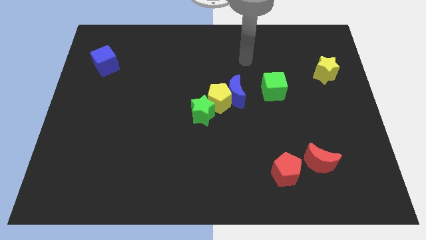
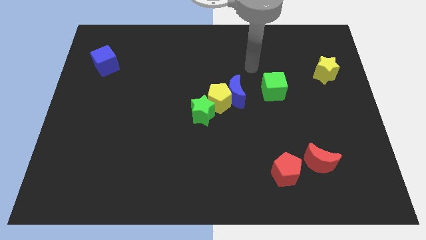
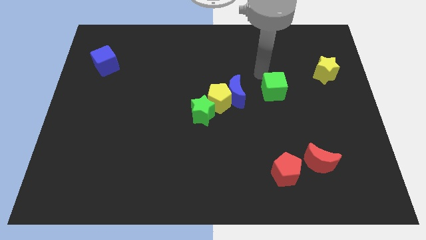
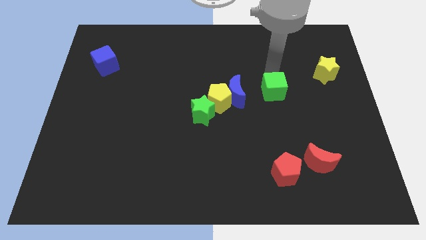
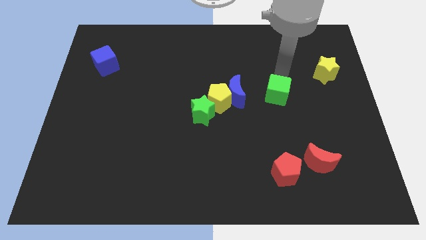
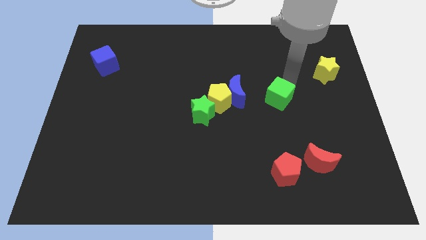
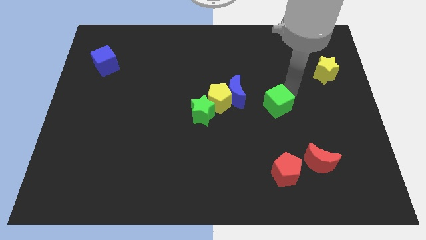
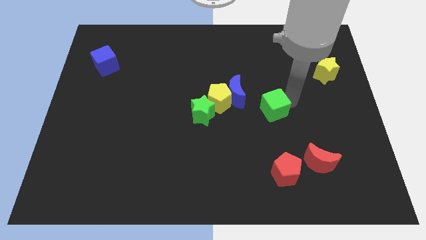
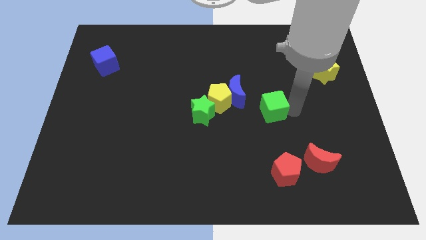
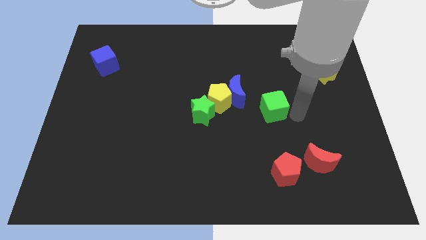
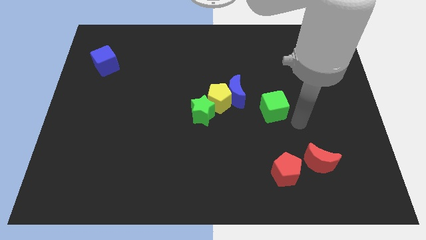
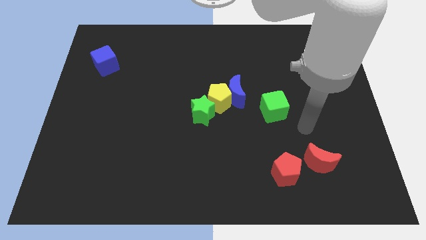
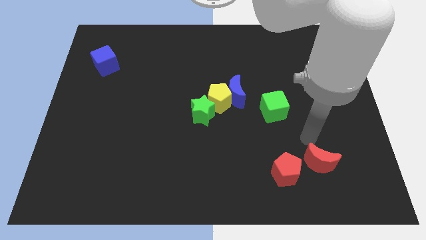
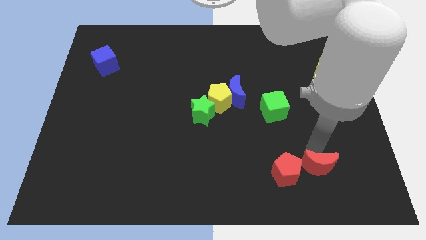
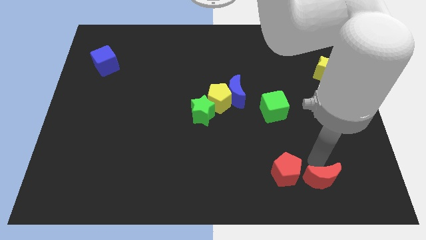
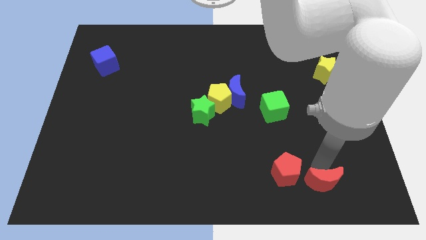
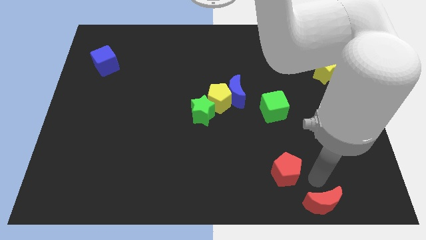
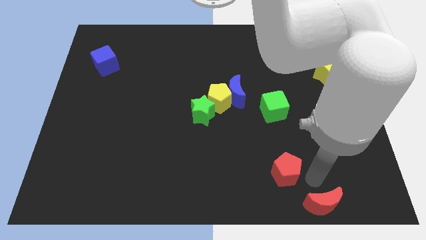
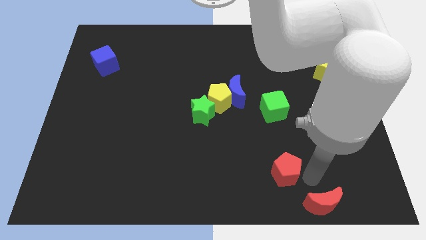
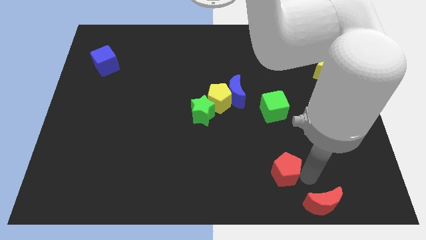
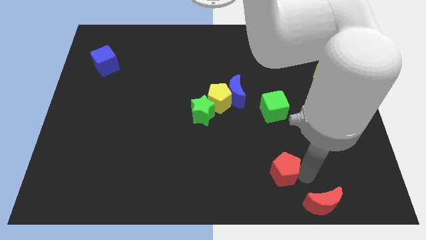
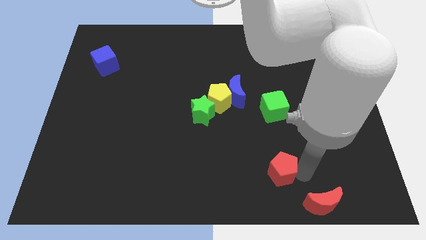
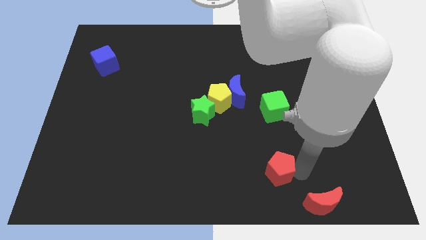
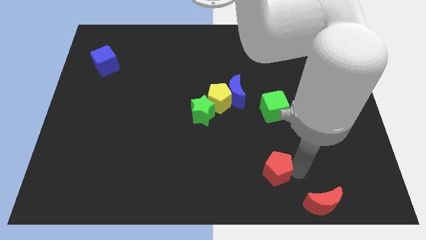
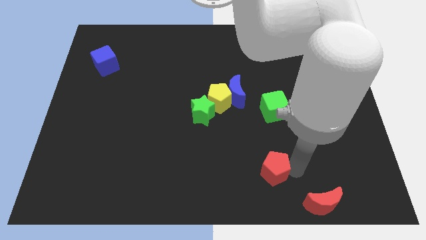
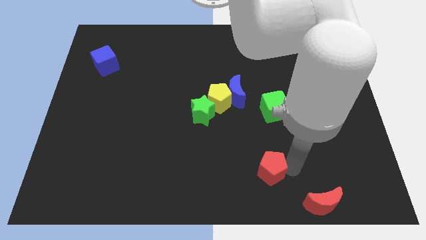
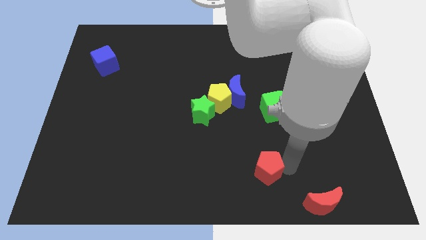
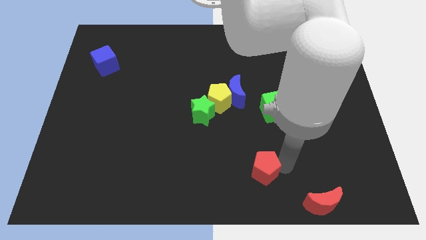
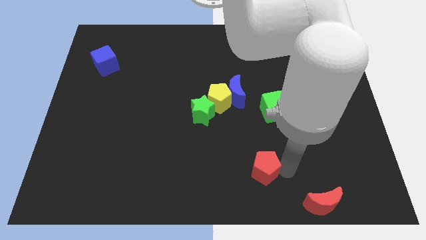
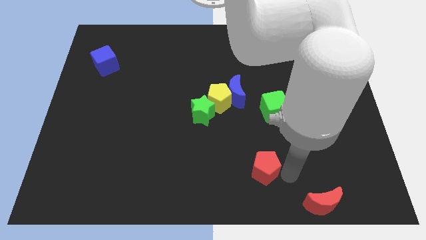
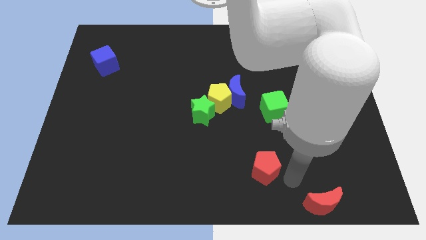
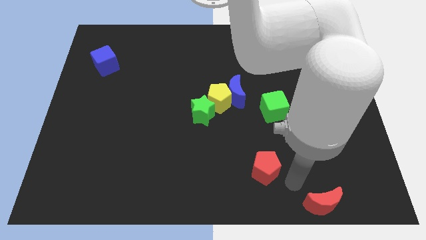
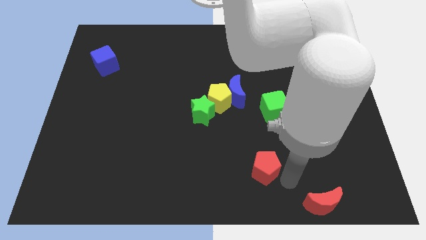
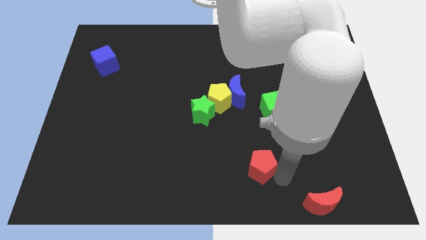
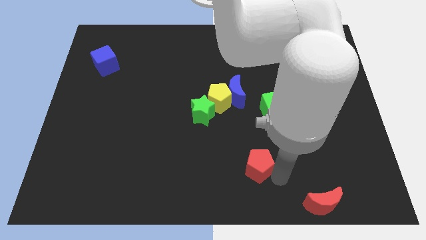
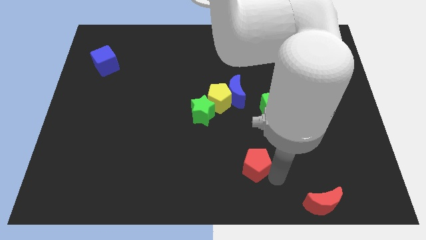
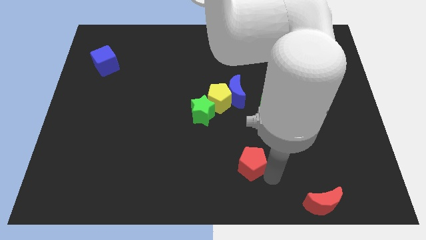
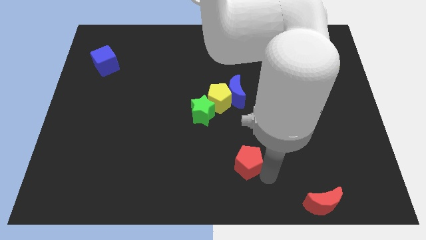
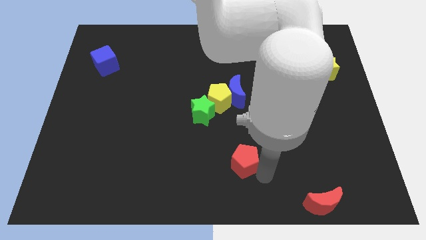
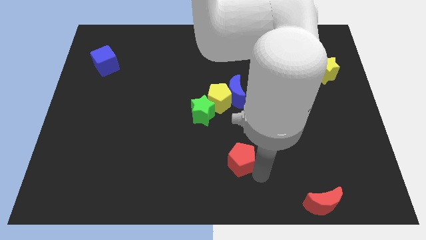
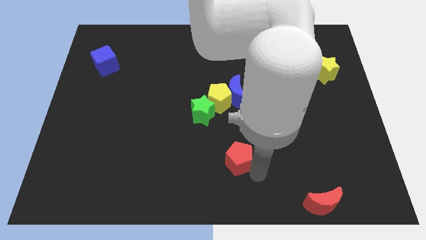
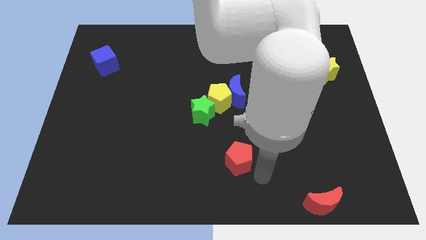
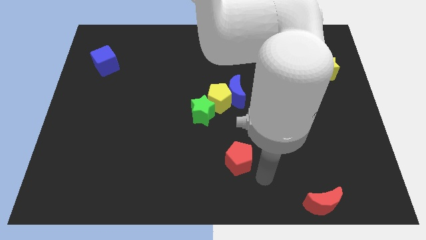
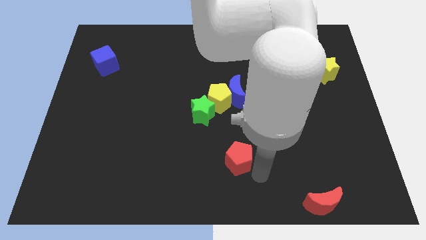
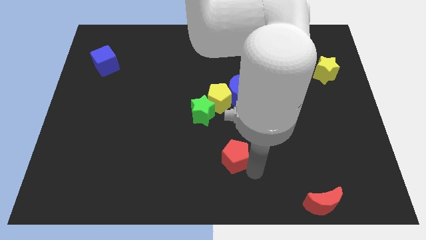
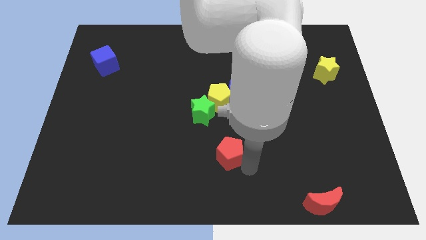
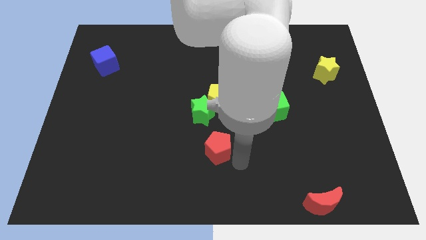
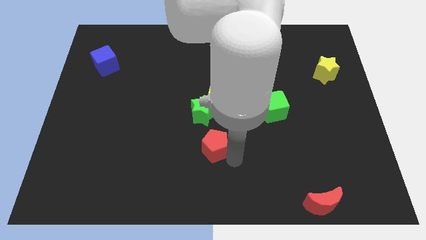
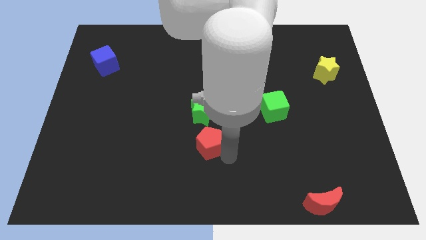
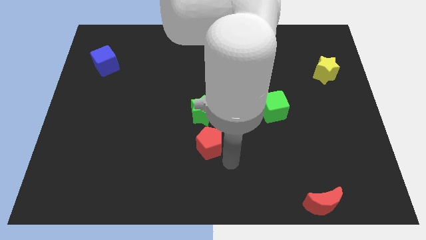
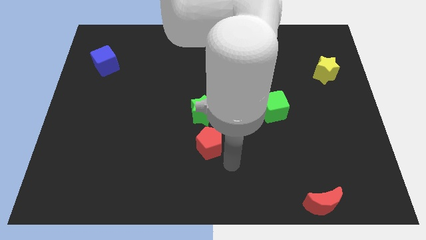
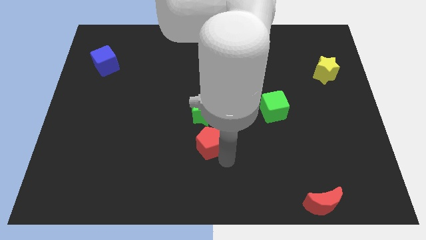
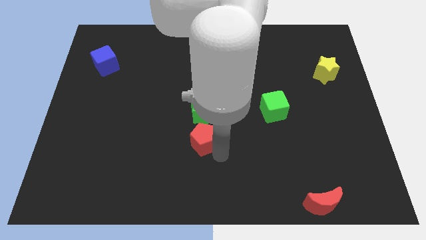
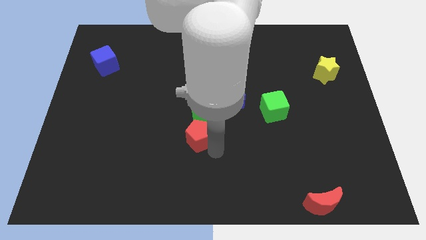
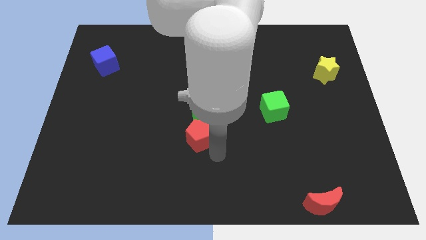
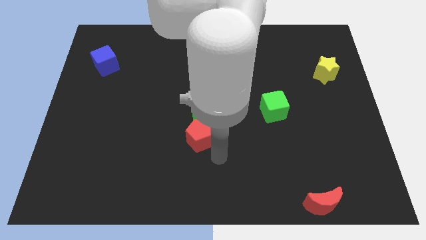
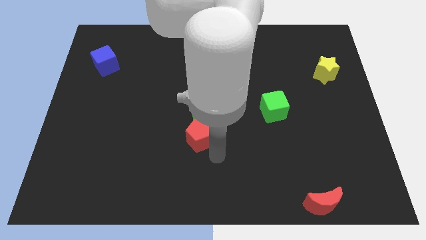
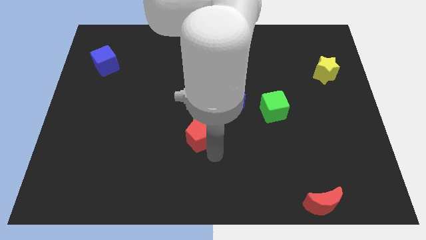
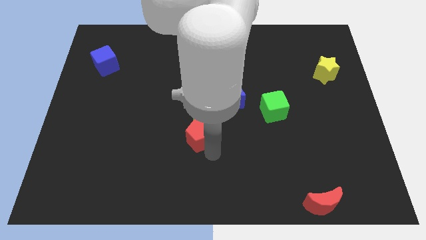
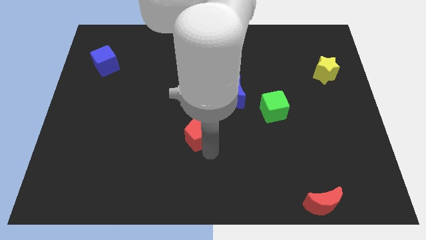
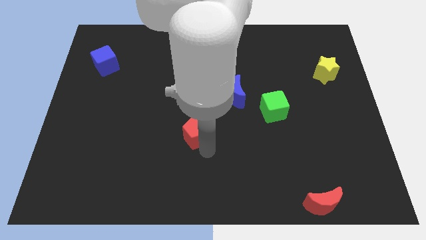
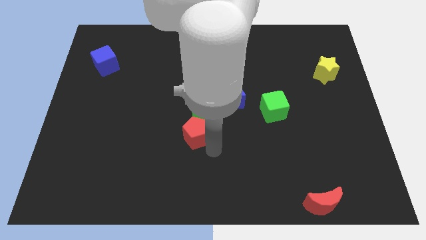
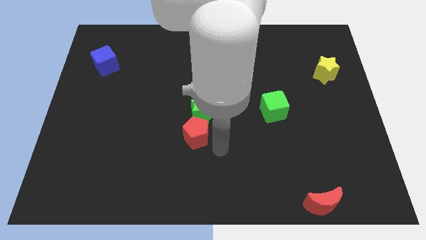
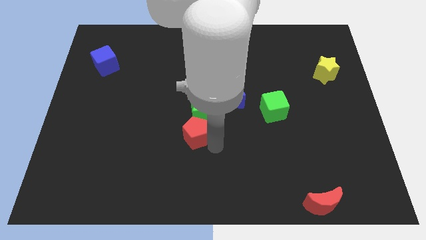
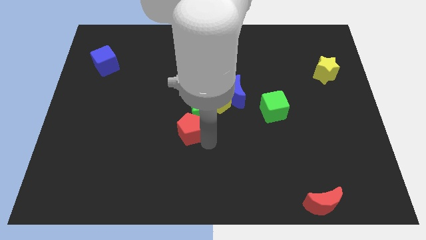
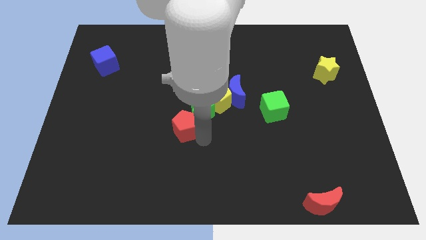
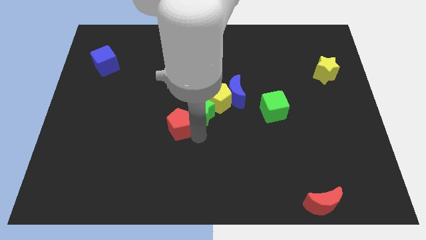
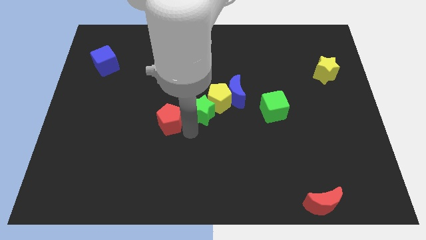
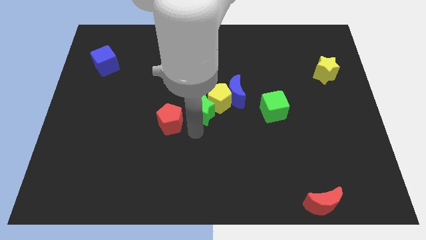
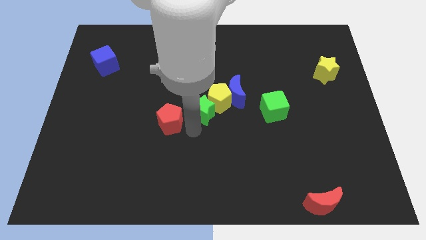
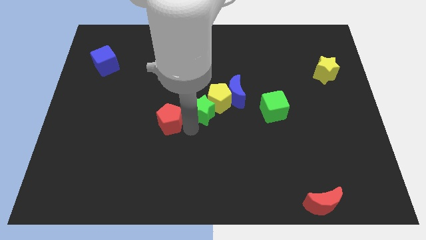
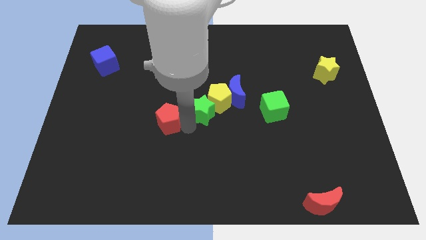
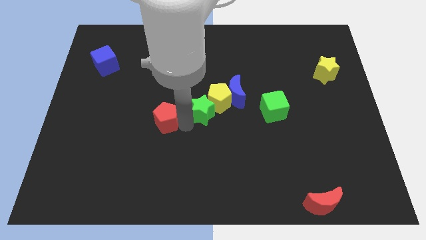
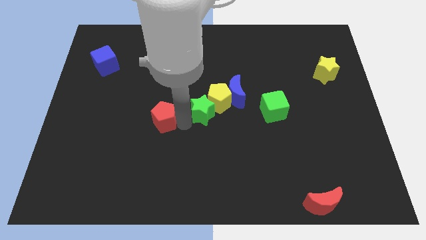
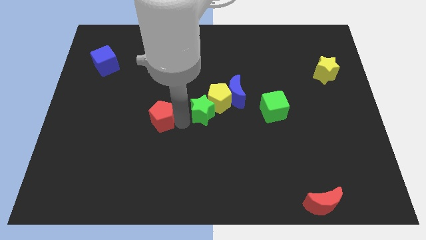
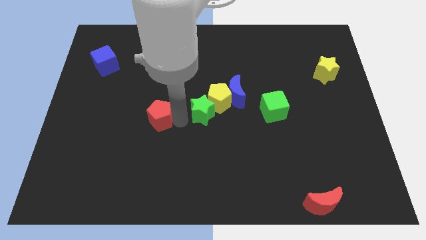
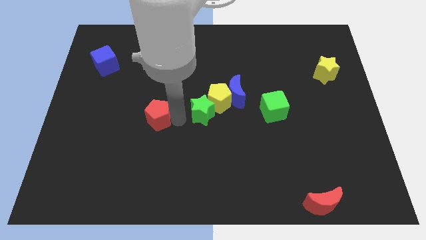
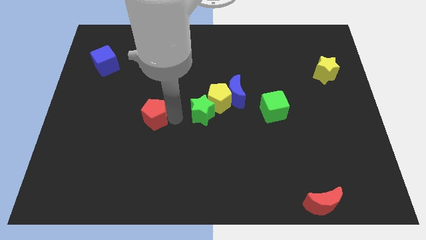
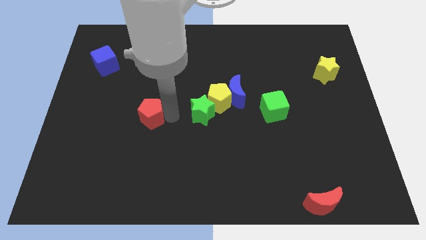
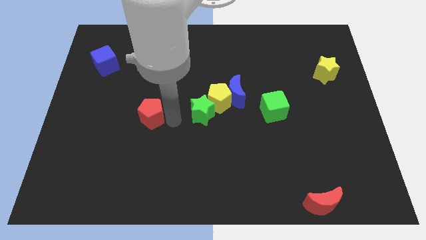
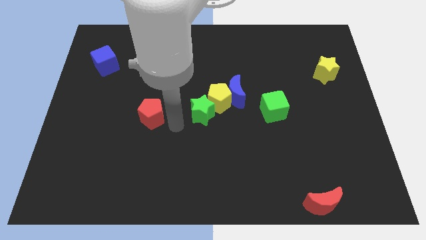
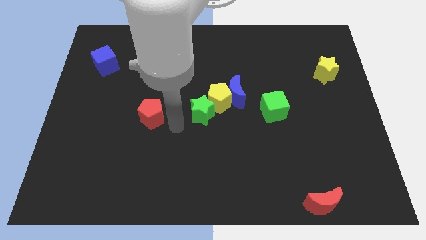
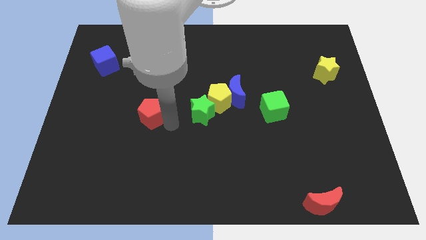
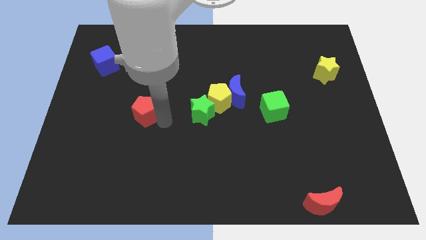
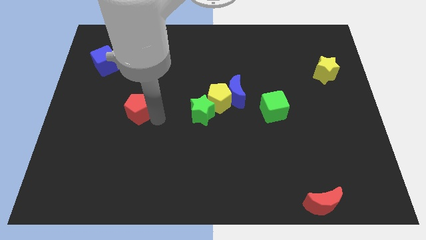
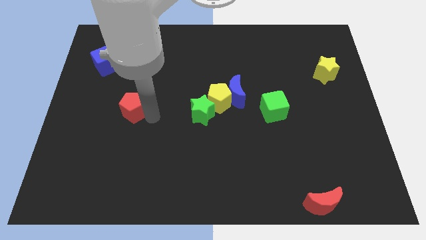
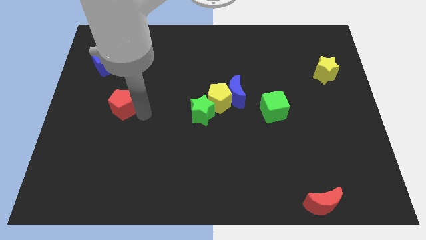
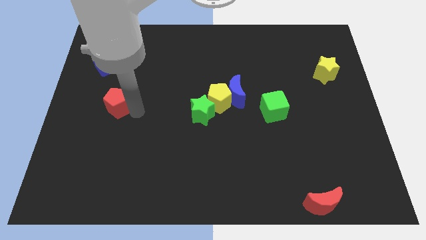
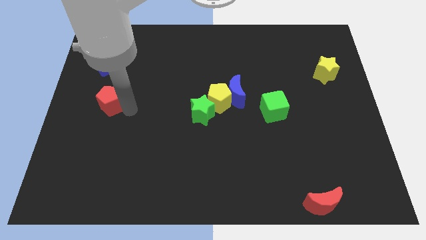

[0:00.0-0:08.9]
slide the red pentagon below the blue cube
